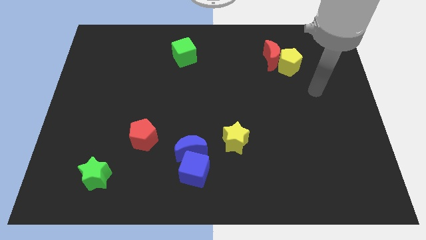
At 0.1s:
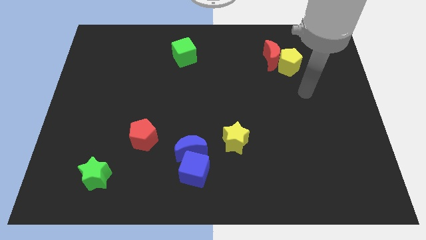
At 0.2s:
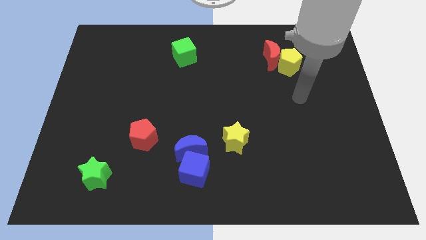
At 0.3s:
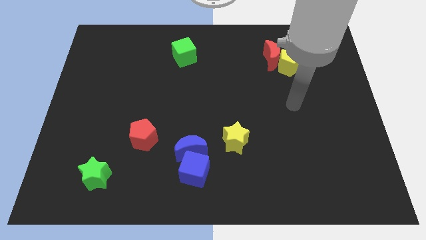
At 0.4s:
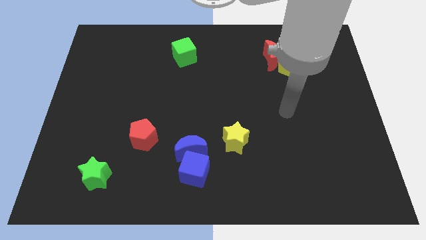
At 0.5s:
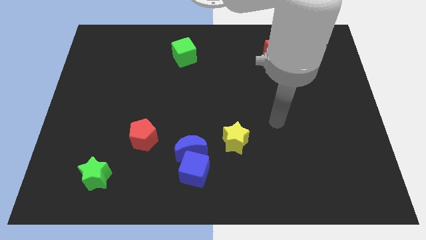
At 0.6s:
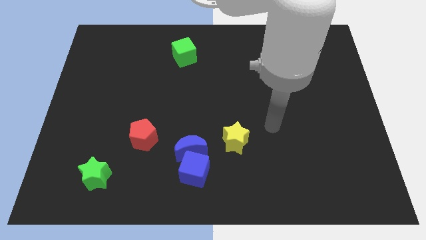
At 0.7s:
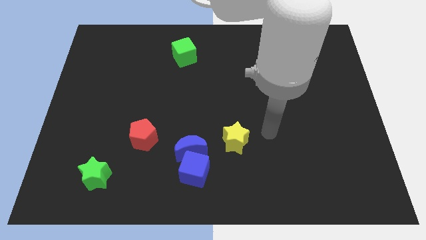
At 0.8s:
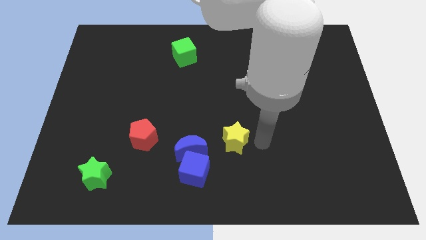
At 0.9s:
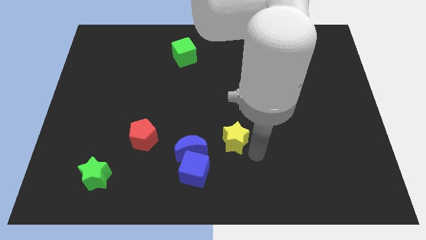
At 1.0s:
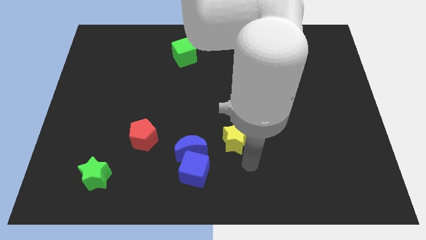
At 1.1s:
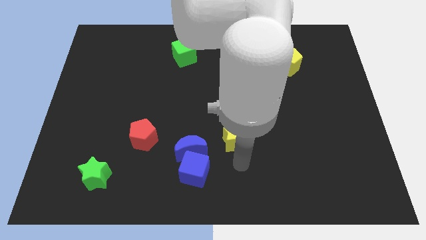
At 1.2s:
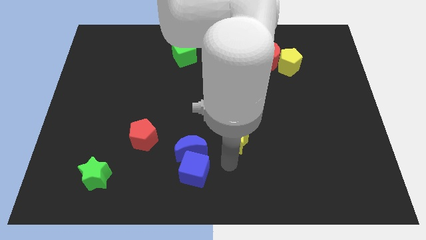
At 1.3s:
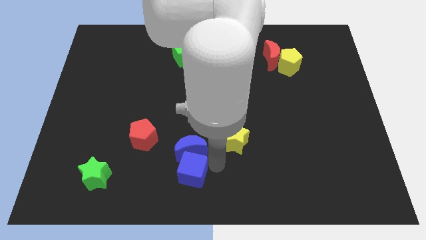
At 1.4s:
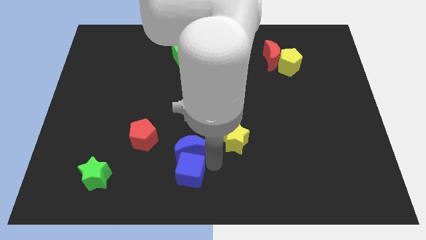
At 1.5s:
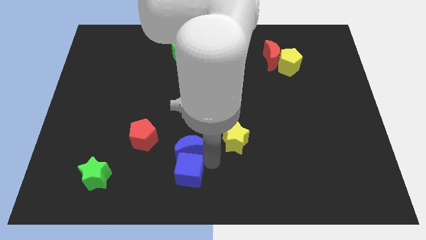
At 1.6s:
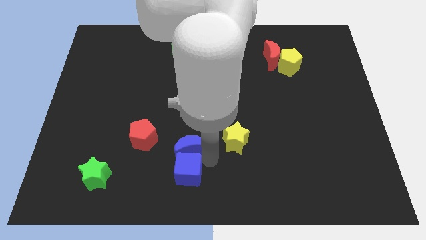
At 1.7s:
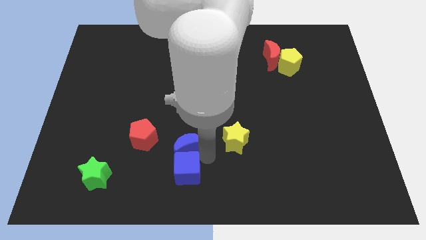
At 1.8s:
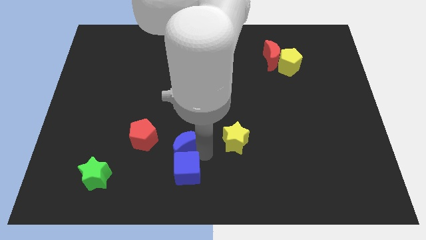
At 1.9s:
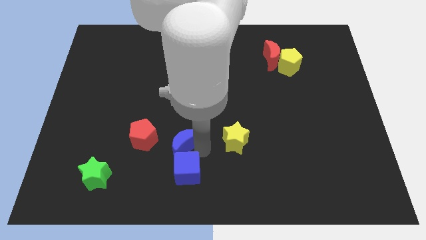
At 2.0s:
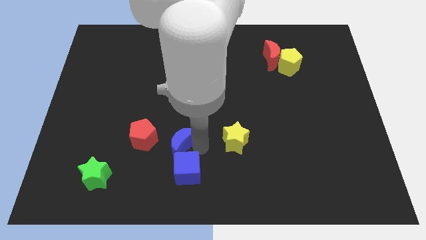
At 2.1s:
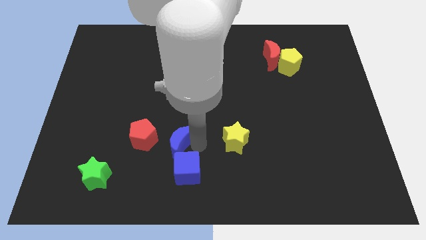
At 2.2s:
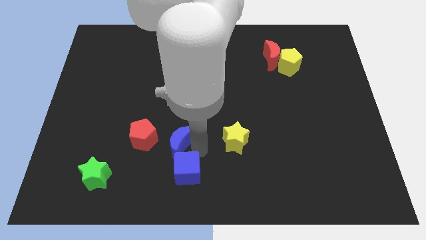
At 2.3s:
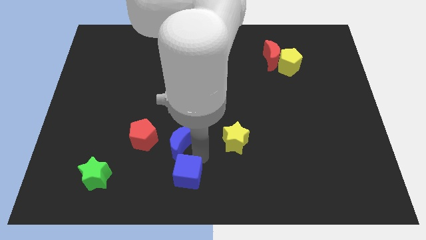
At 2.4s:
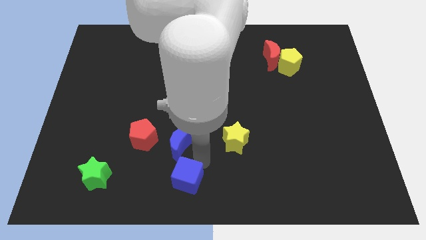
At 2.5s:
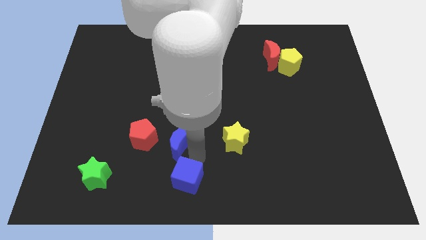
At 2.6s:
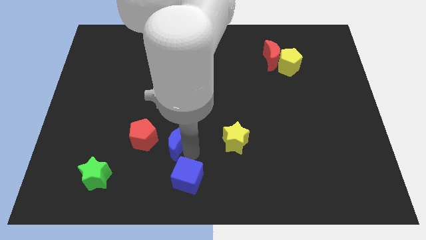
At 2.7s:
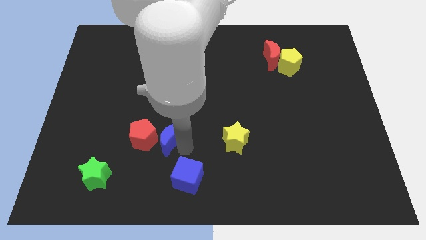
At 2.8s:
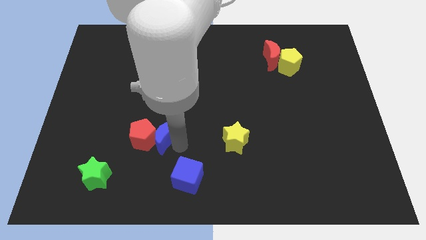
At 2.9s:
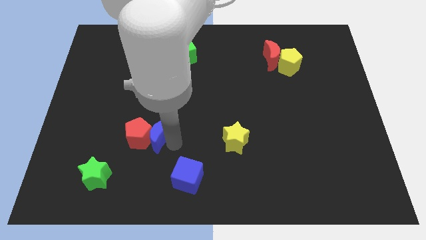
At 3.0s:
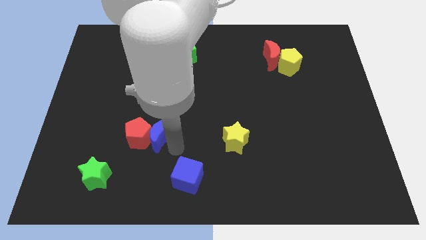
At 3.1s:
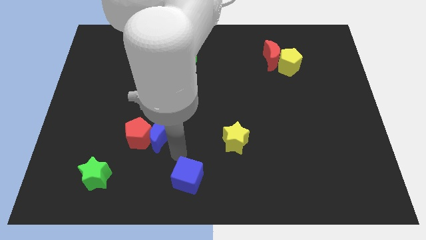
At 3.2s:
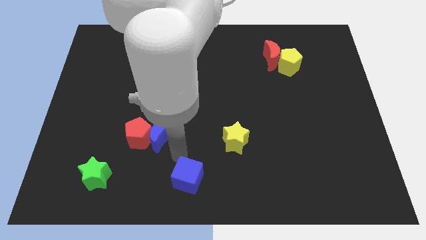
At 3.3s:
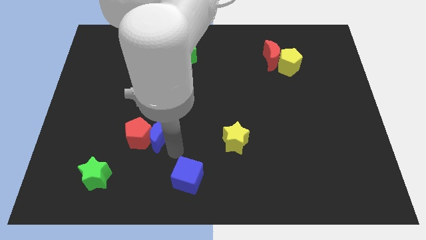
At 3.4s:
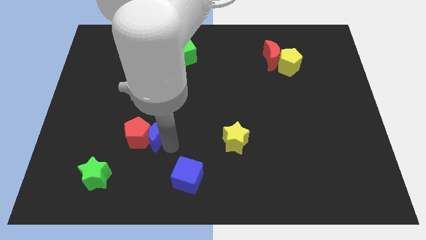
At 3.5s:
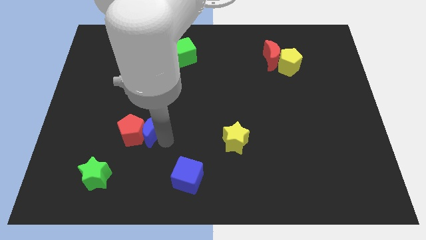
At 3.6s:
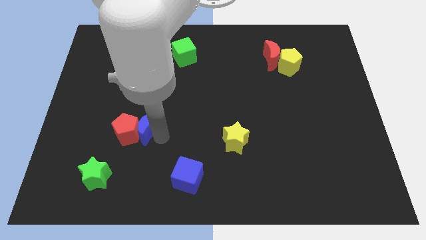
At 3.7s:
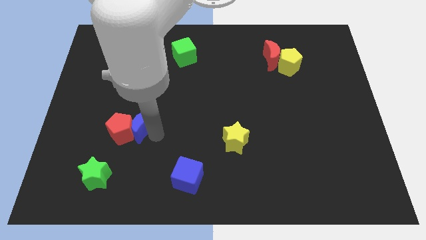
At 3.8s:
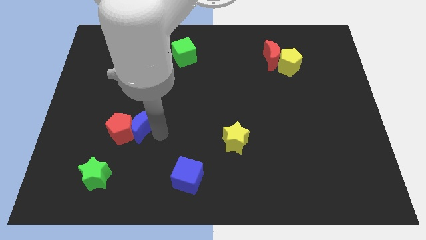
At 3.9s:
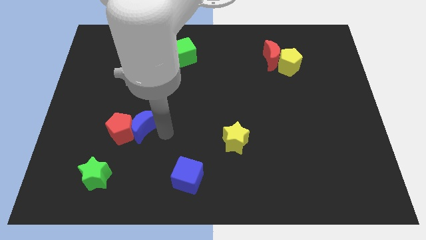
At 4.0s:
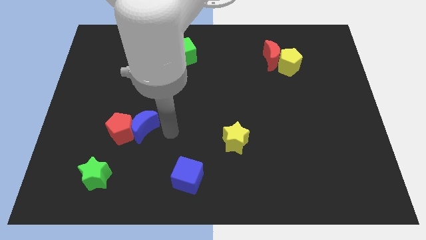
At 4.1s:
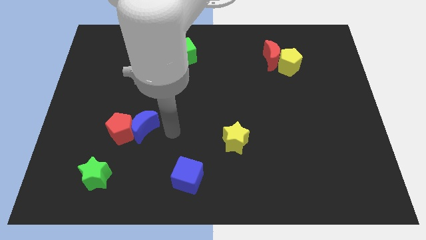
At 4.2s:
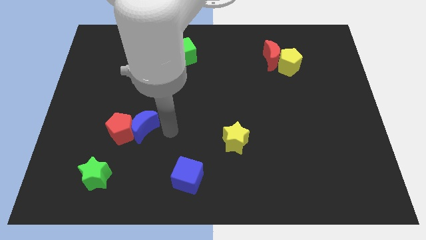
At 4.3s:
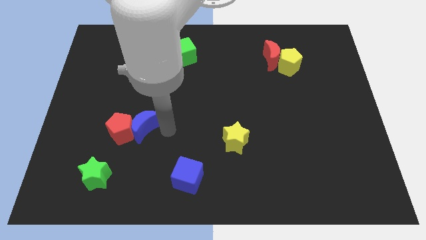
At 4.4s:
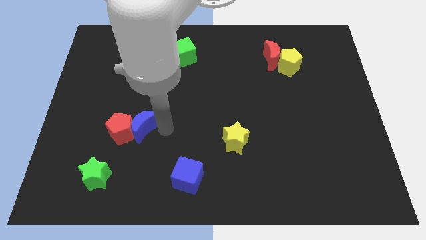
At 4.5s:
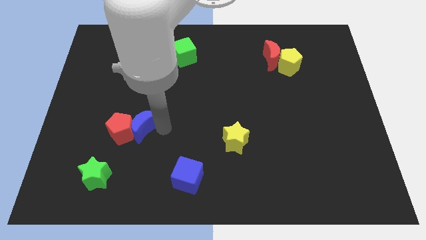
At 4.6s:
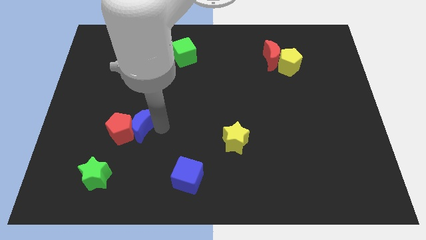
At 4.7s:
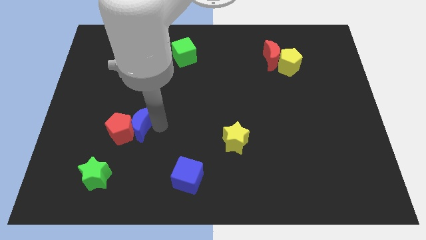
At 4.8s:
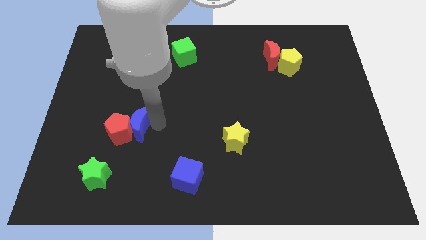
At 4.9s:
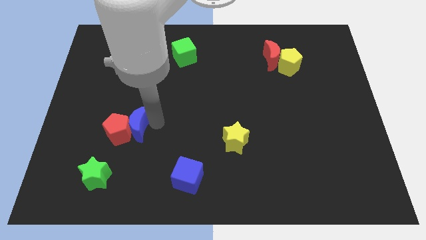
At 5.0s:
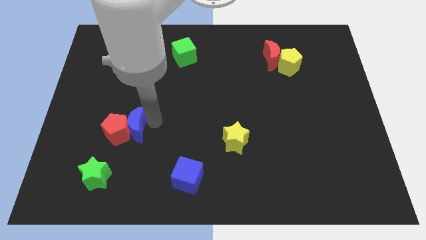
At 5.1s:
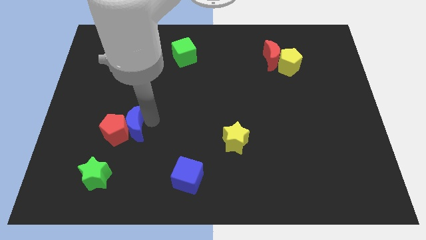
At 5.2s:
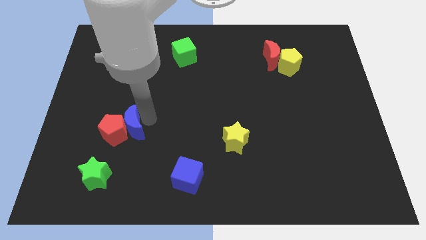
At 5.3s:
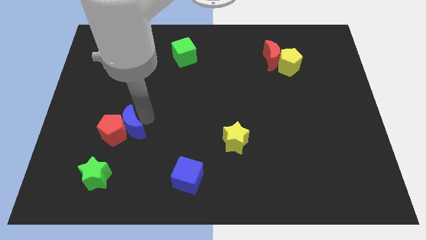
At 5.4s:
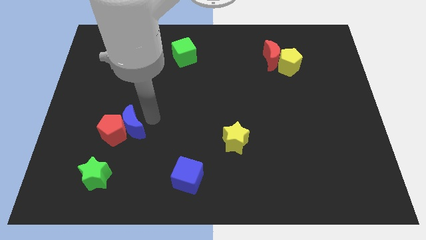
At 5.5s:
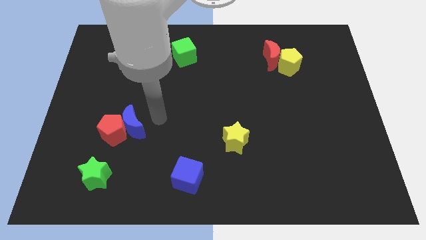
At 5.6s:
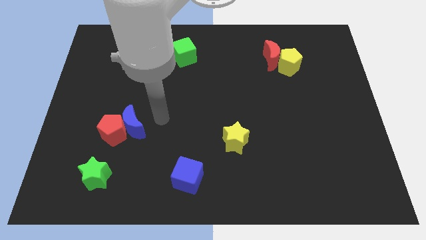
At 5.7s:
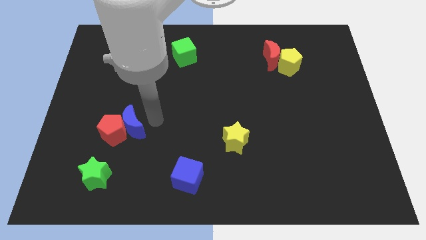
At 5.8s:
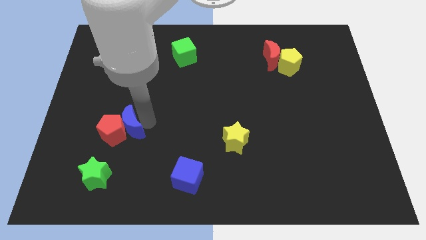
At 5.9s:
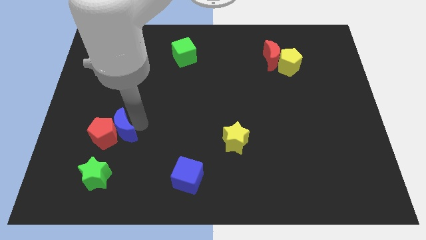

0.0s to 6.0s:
move the blue moon above the green star

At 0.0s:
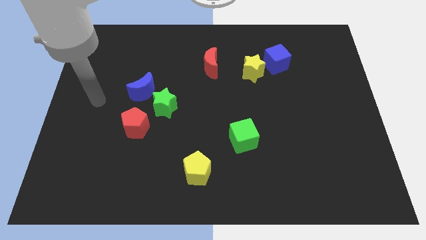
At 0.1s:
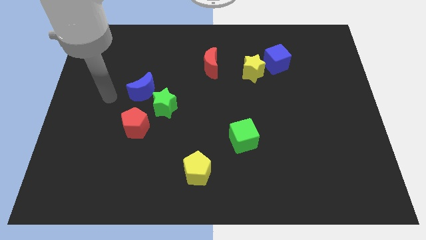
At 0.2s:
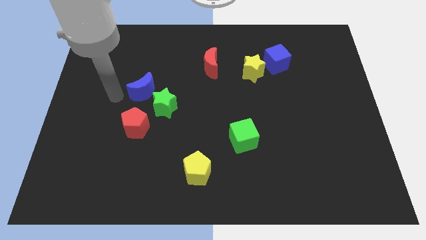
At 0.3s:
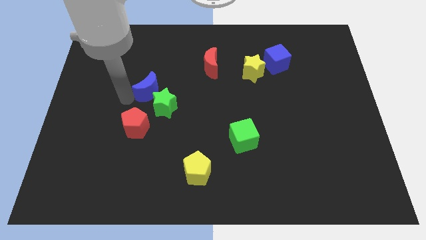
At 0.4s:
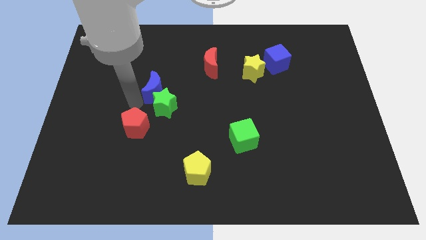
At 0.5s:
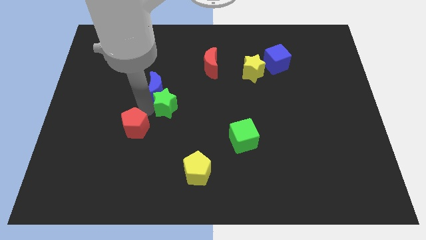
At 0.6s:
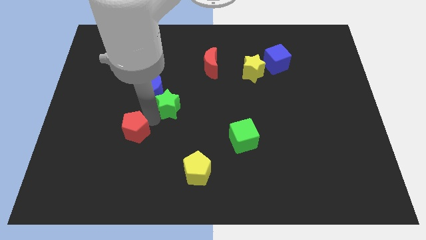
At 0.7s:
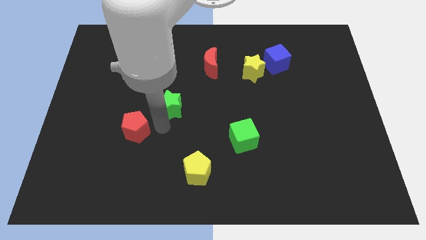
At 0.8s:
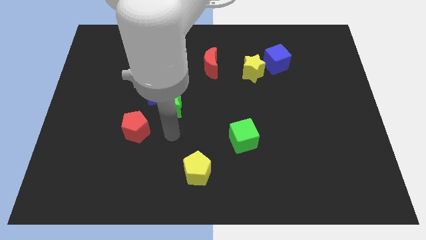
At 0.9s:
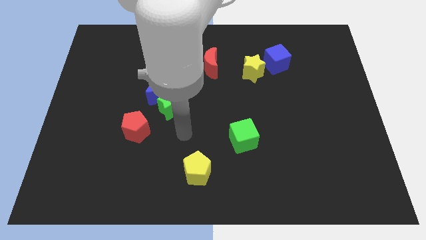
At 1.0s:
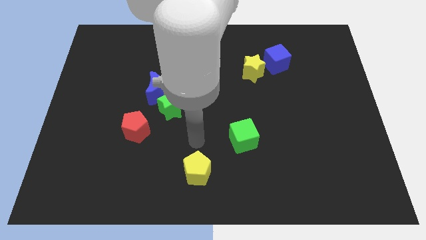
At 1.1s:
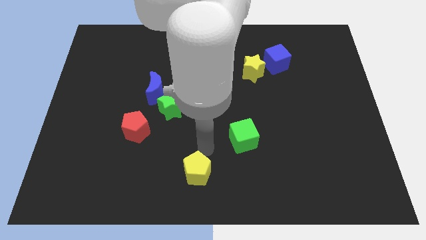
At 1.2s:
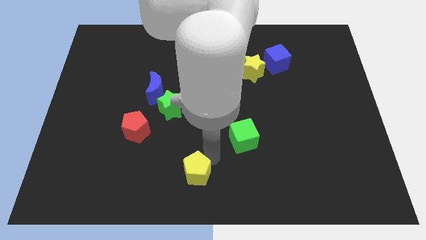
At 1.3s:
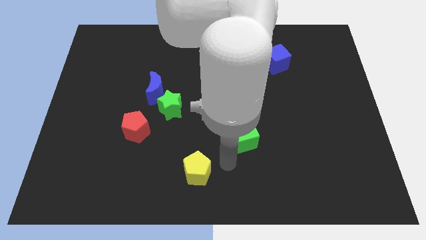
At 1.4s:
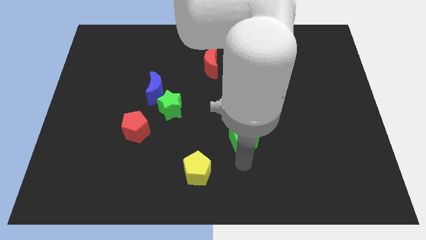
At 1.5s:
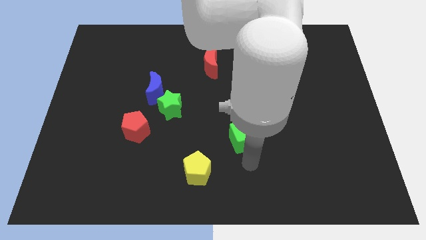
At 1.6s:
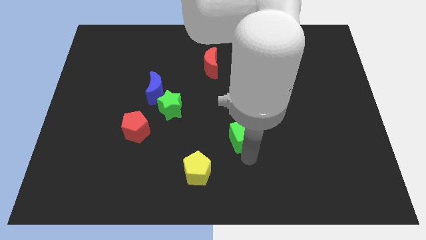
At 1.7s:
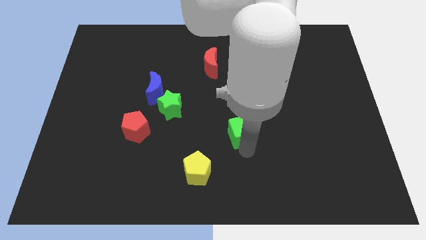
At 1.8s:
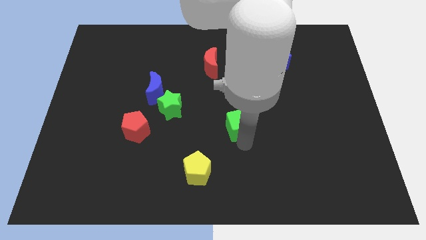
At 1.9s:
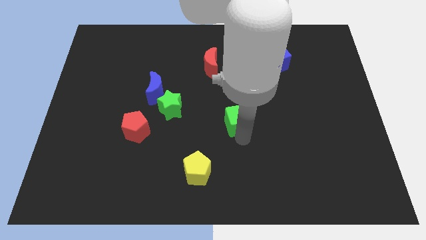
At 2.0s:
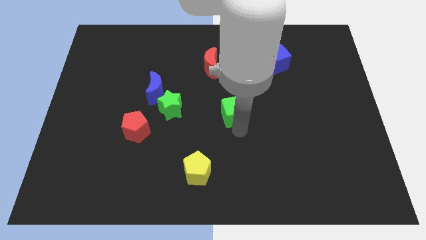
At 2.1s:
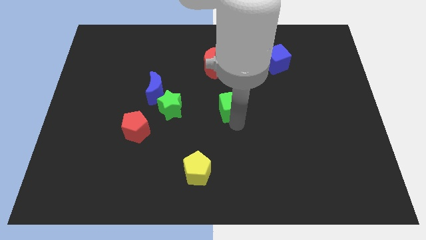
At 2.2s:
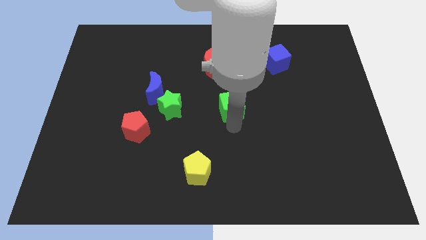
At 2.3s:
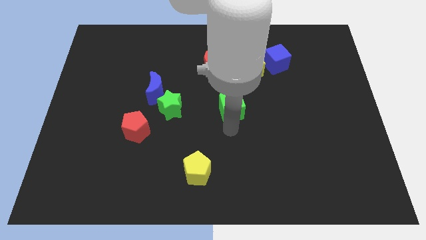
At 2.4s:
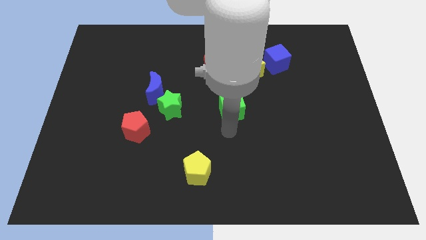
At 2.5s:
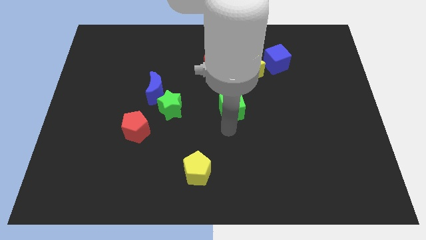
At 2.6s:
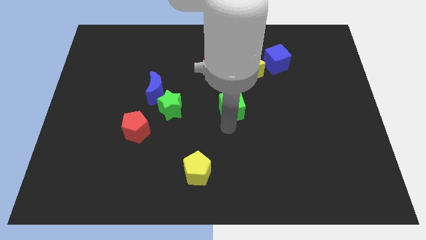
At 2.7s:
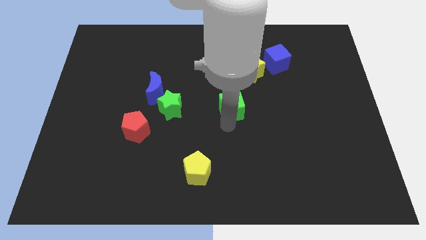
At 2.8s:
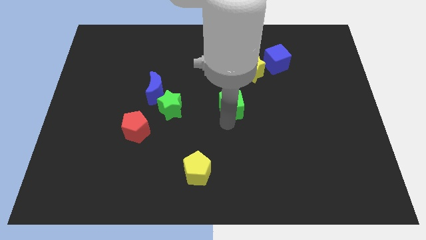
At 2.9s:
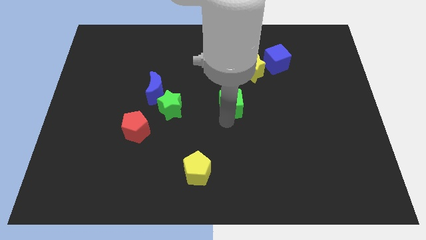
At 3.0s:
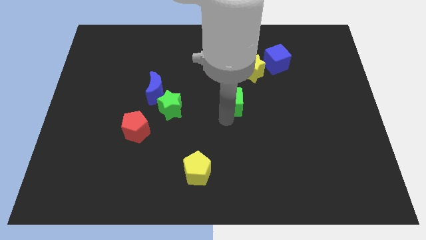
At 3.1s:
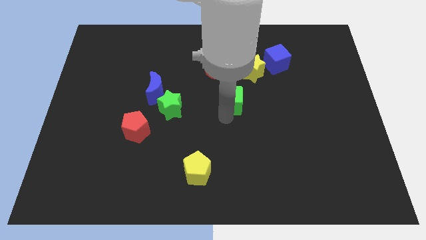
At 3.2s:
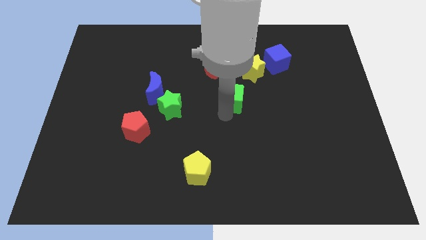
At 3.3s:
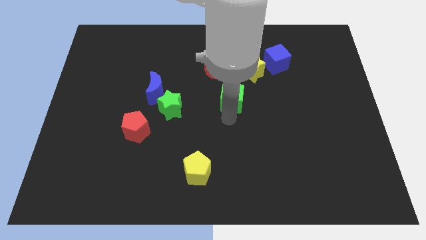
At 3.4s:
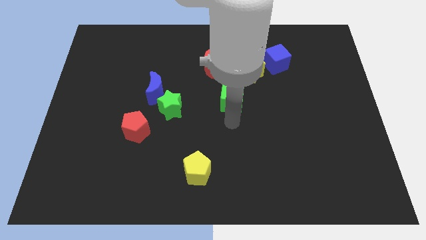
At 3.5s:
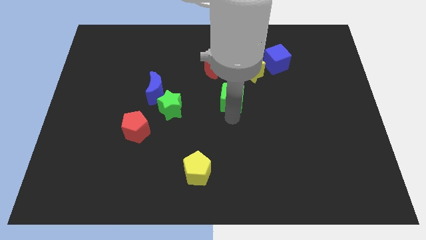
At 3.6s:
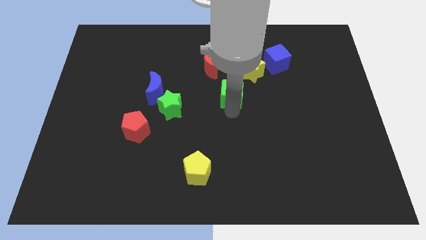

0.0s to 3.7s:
move the green cube to the bottom right of the red moon
